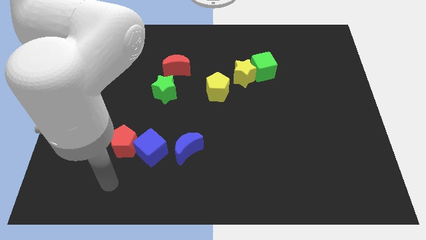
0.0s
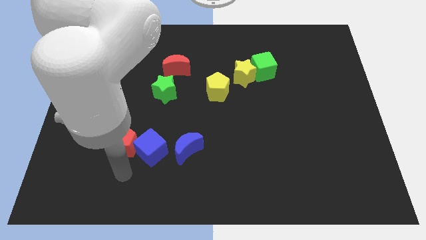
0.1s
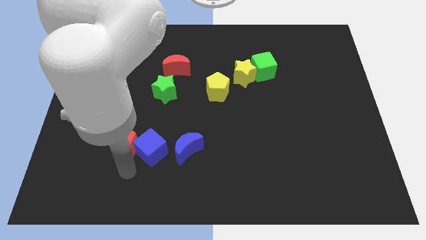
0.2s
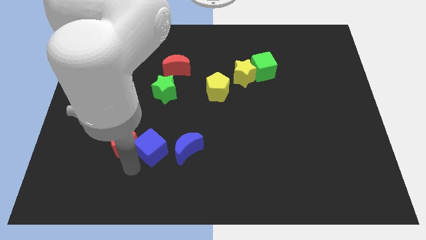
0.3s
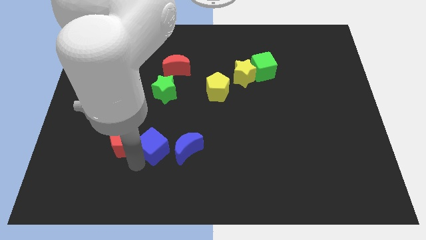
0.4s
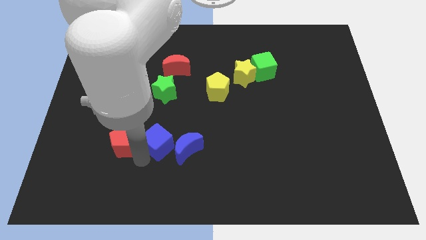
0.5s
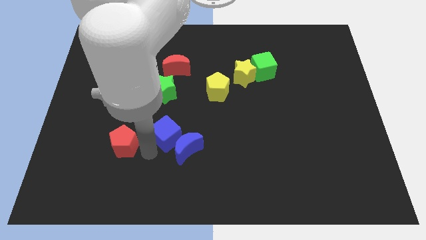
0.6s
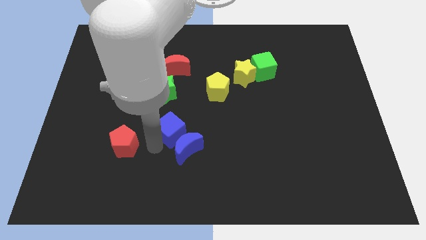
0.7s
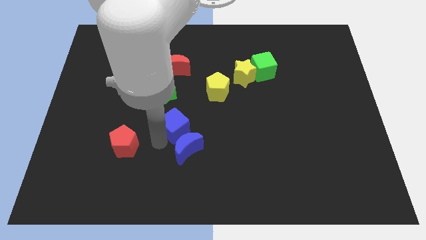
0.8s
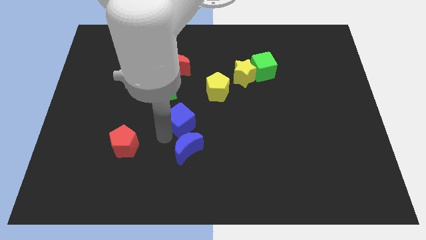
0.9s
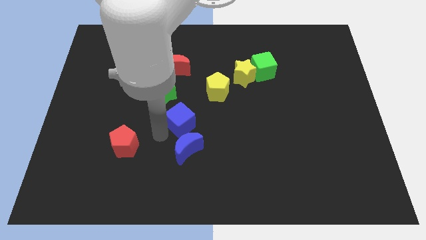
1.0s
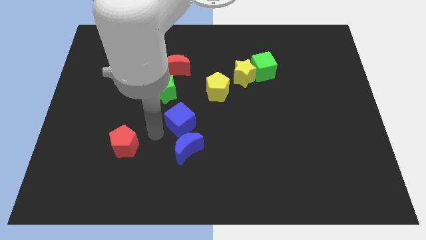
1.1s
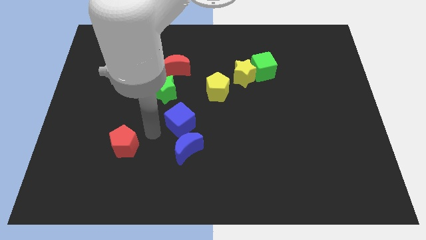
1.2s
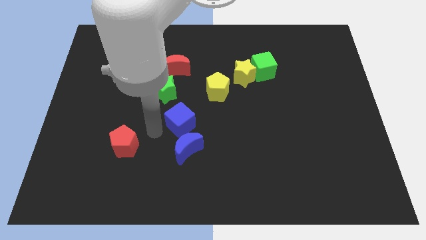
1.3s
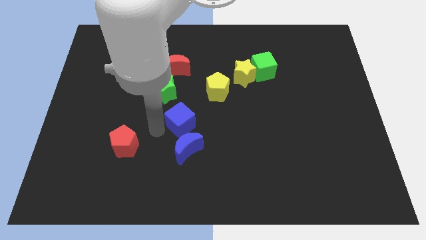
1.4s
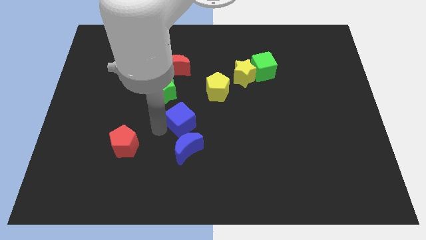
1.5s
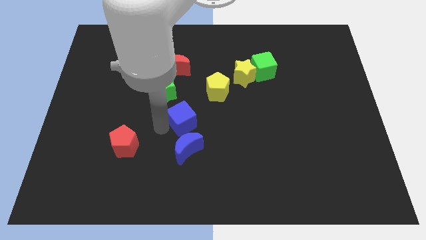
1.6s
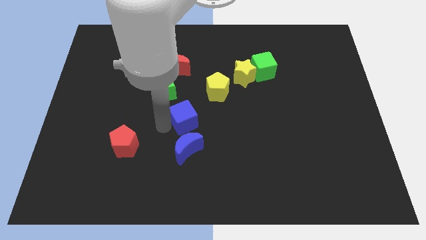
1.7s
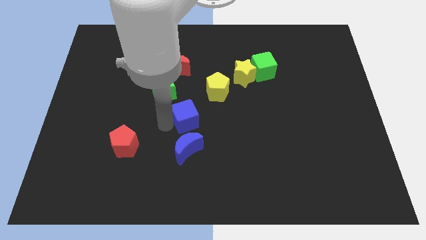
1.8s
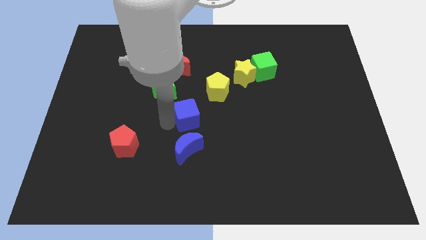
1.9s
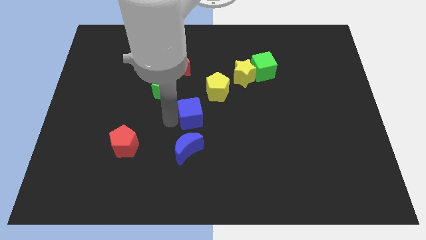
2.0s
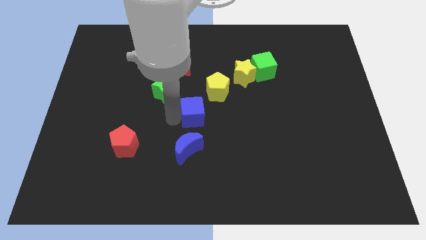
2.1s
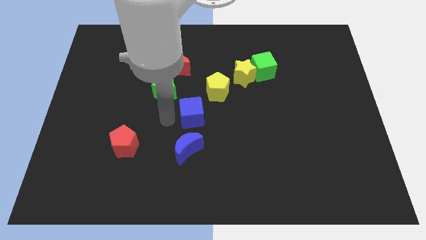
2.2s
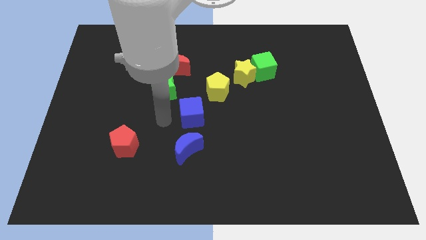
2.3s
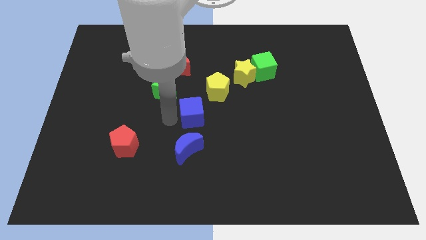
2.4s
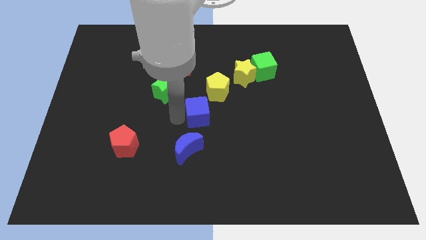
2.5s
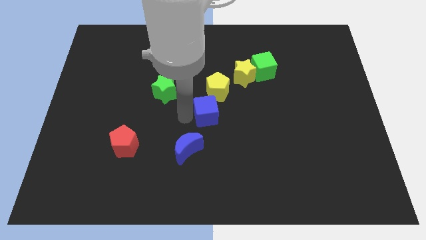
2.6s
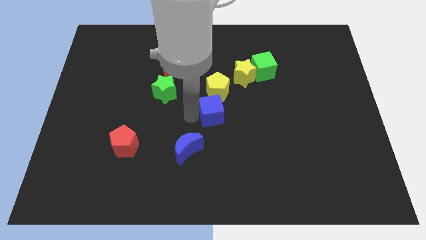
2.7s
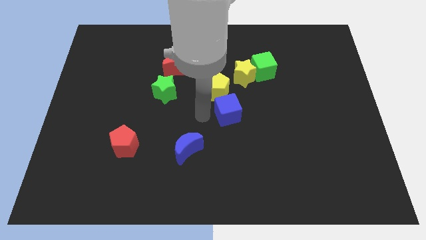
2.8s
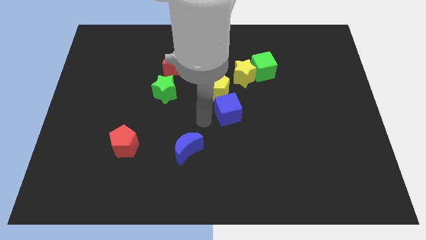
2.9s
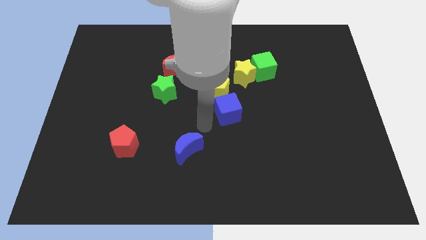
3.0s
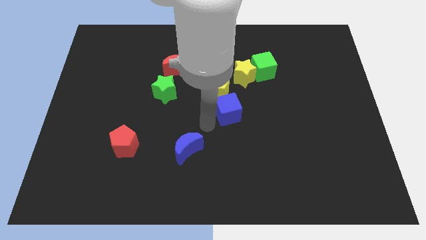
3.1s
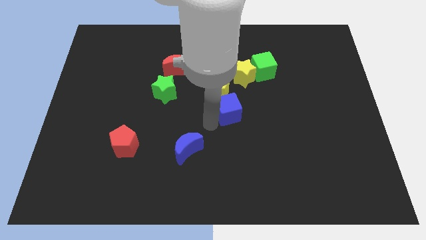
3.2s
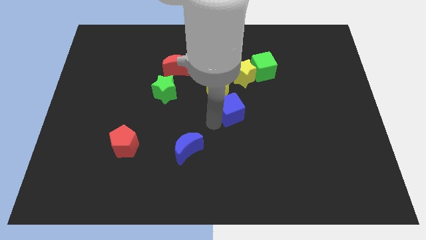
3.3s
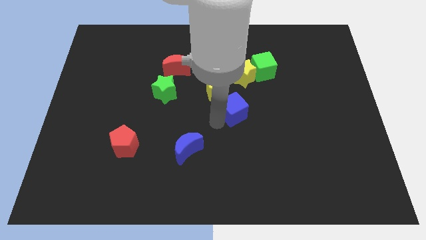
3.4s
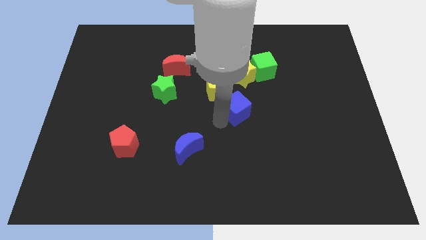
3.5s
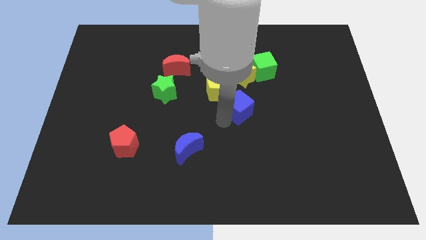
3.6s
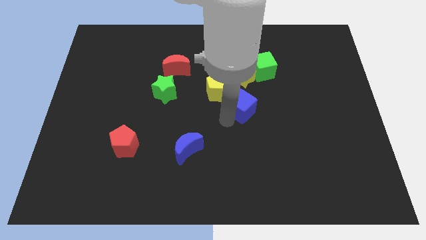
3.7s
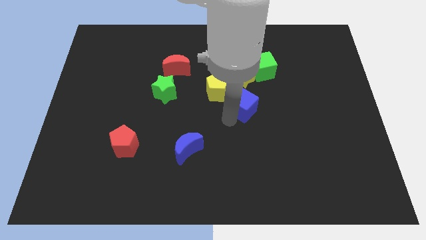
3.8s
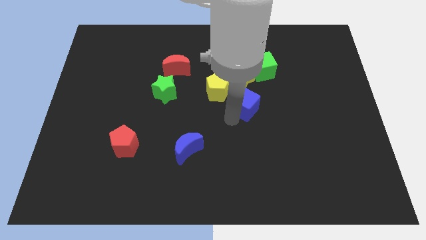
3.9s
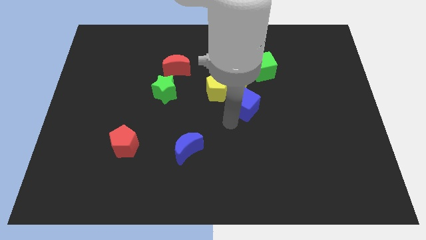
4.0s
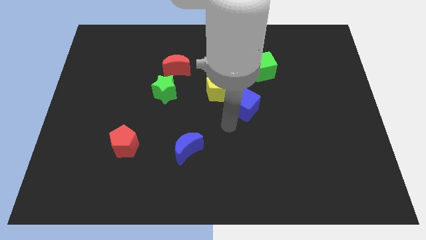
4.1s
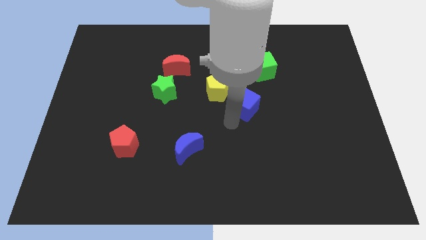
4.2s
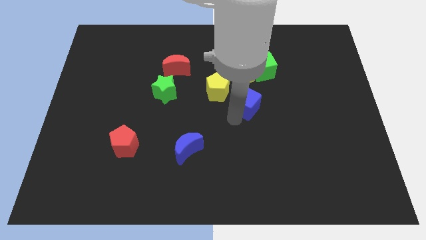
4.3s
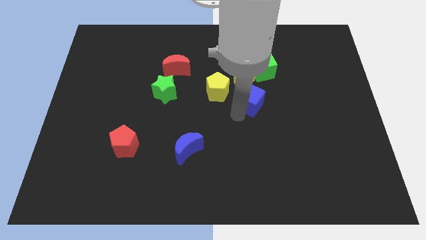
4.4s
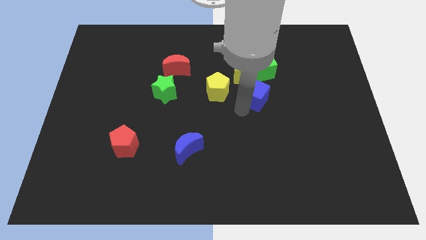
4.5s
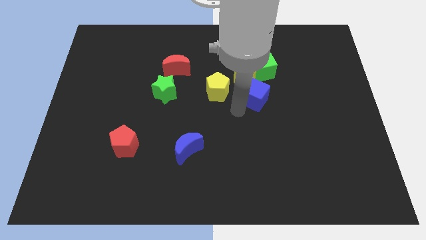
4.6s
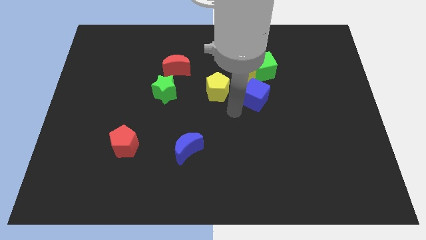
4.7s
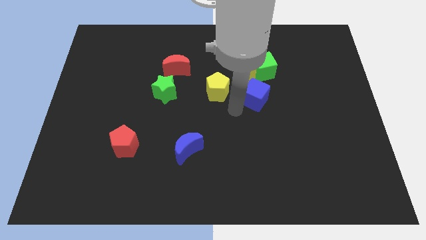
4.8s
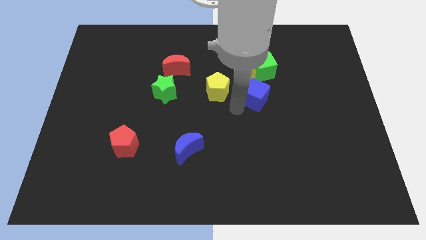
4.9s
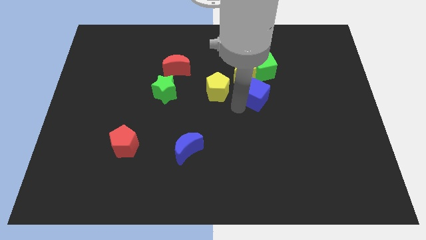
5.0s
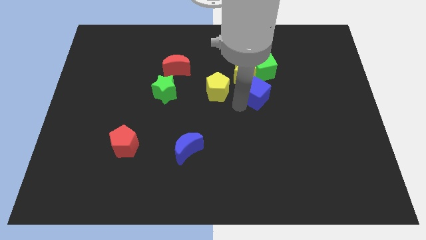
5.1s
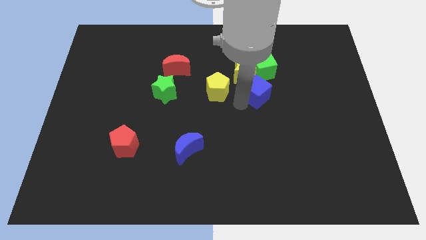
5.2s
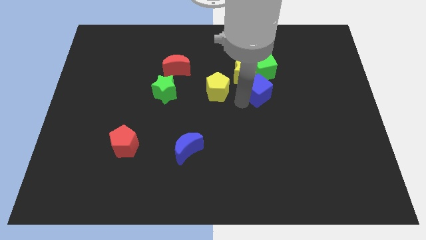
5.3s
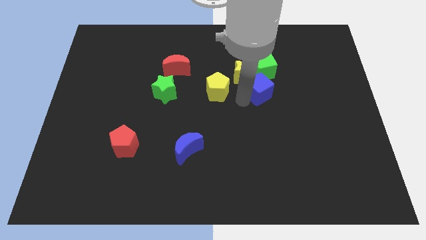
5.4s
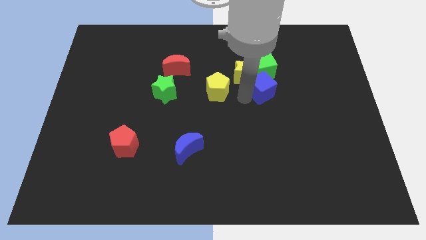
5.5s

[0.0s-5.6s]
put the blue cube to the right of the yellow star

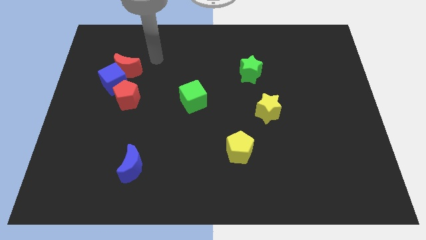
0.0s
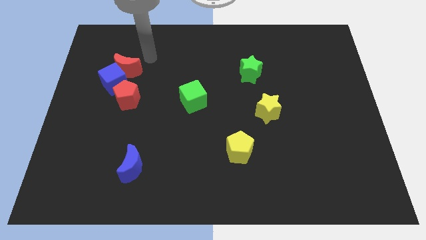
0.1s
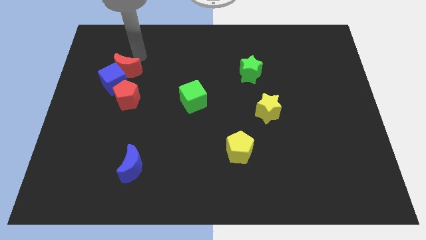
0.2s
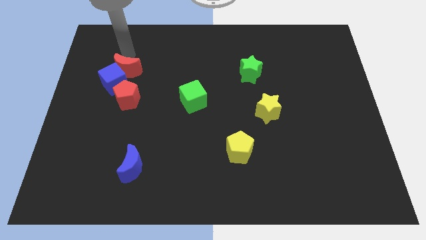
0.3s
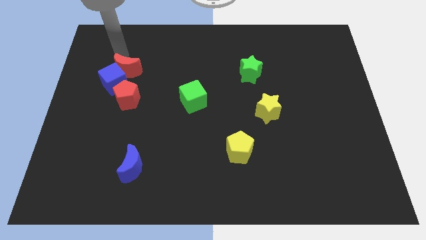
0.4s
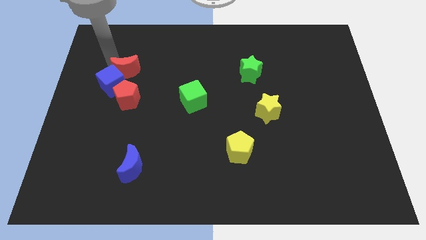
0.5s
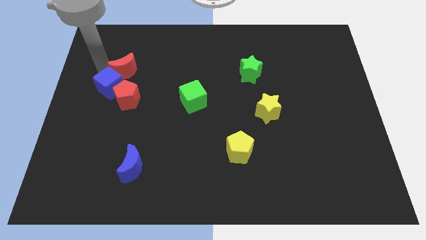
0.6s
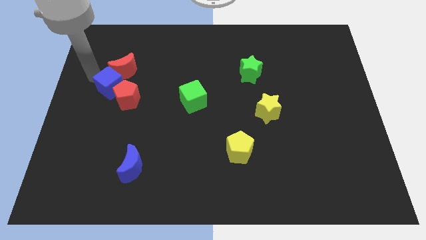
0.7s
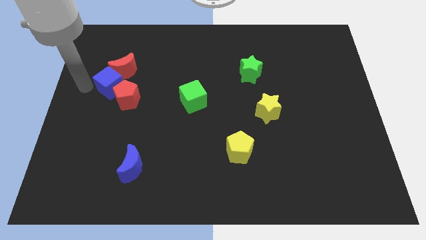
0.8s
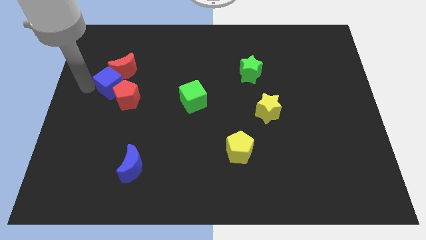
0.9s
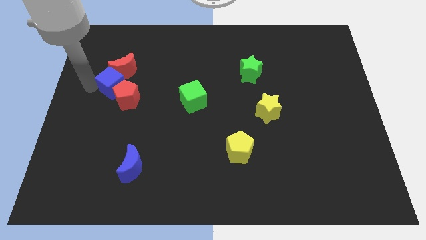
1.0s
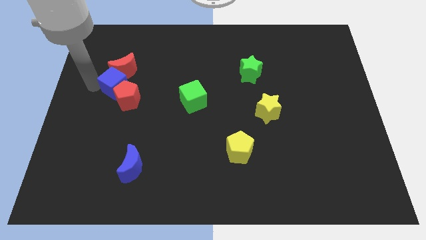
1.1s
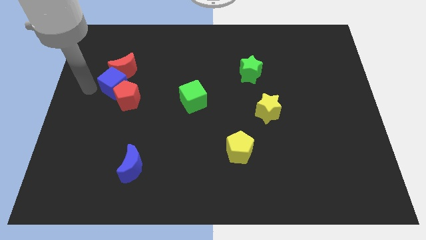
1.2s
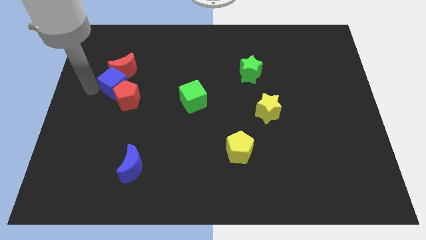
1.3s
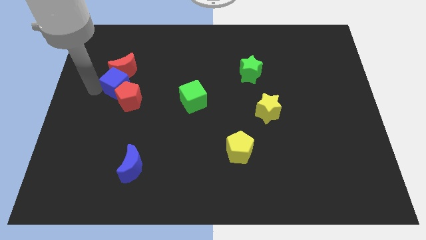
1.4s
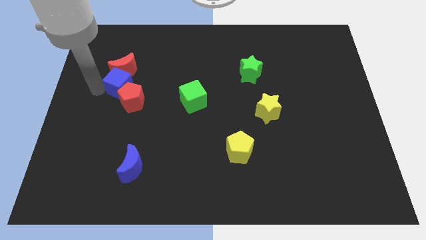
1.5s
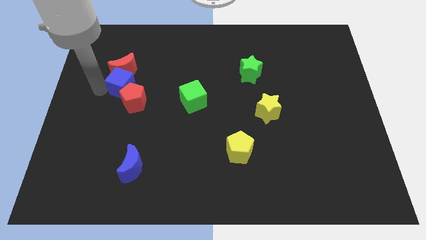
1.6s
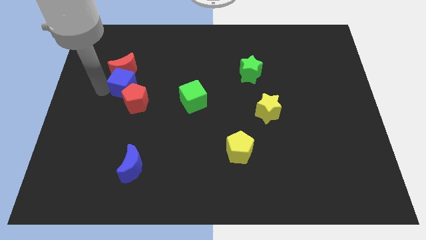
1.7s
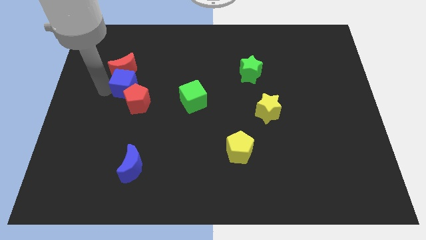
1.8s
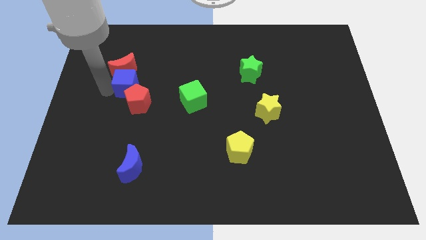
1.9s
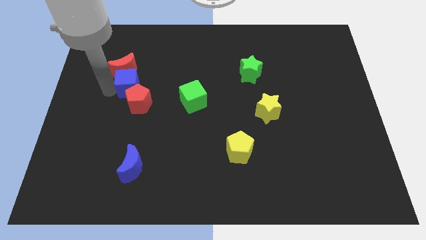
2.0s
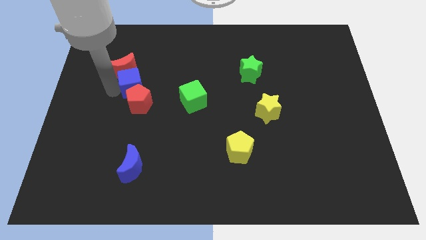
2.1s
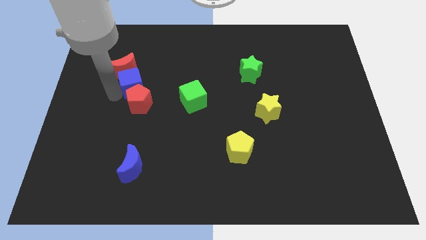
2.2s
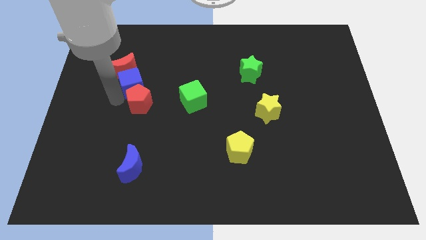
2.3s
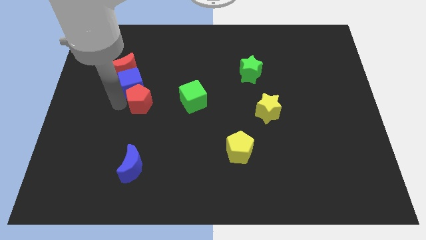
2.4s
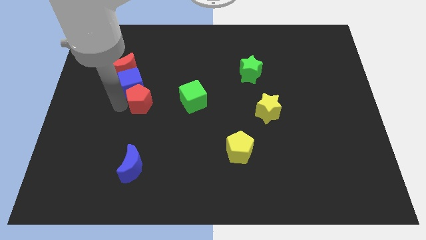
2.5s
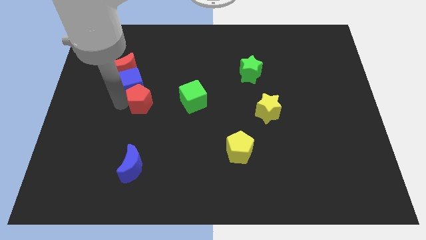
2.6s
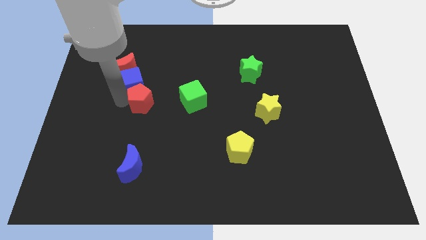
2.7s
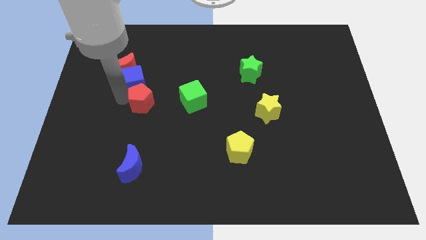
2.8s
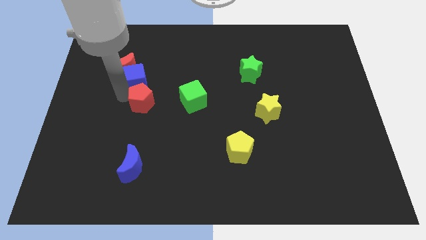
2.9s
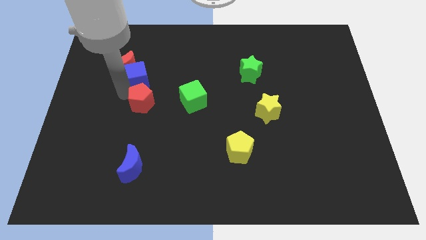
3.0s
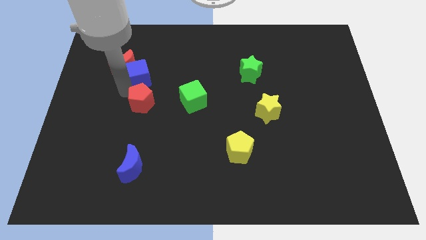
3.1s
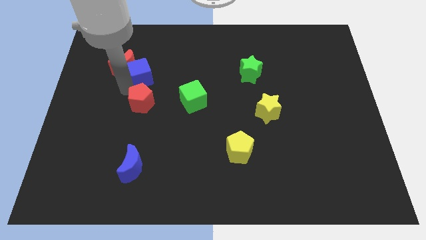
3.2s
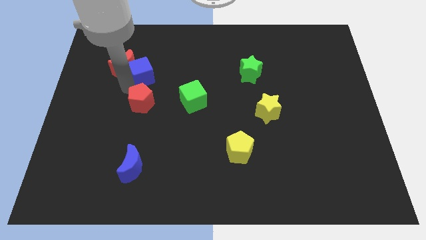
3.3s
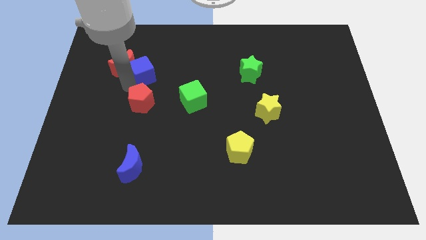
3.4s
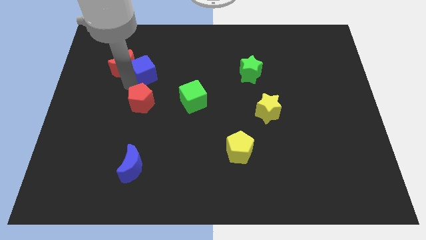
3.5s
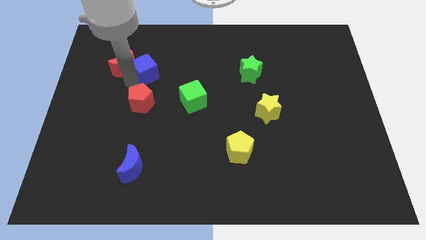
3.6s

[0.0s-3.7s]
put the blue cube diagonally up and to the right of the red moon
